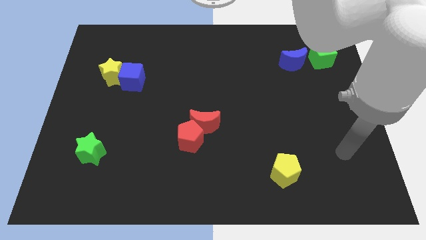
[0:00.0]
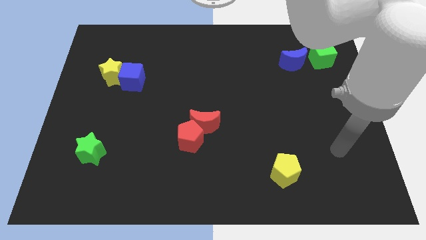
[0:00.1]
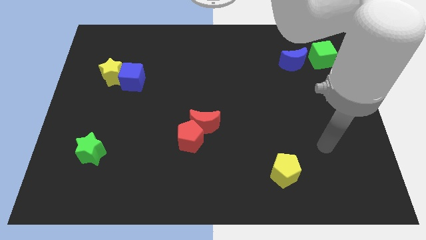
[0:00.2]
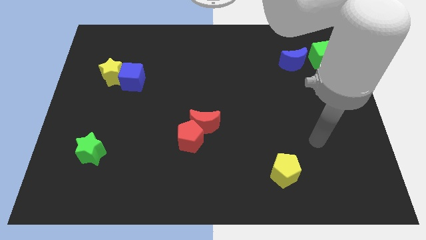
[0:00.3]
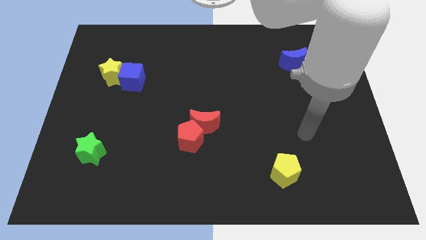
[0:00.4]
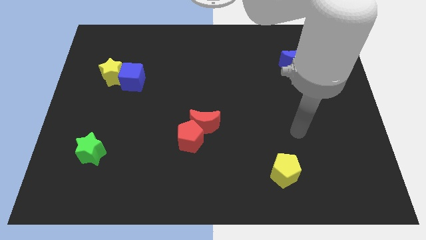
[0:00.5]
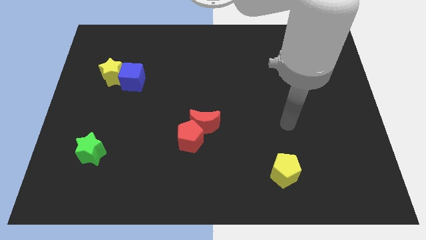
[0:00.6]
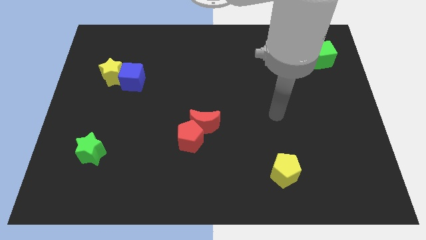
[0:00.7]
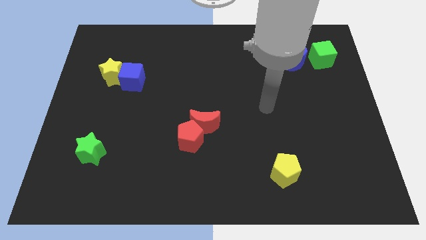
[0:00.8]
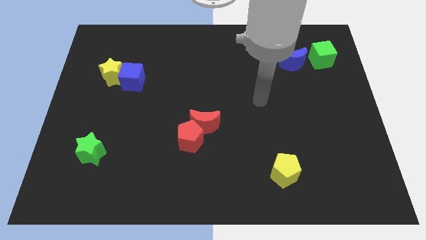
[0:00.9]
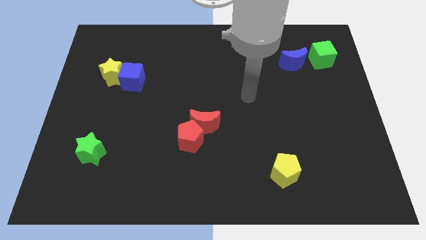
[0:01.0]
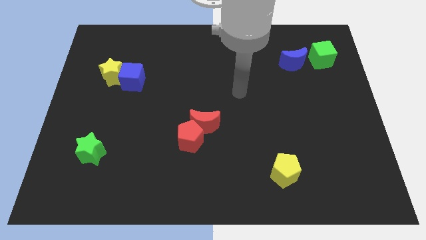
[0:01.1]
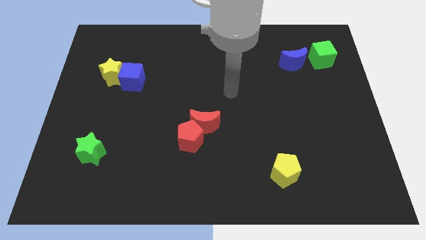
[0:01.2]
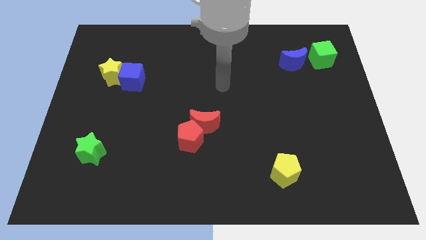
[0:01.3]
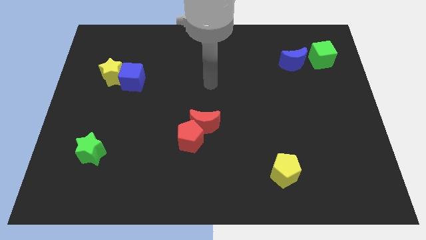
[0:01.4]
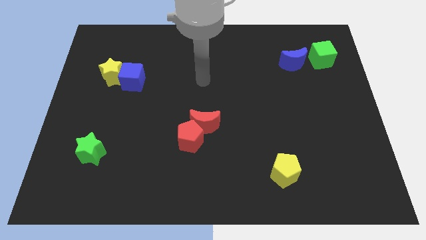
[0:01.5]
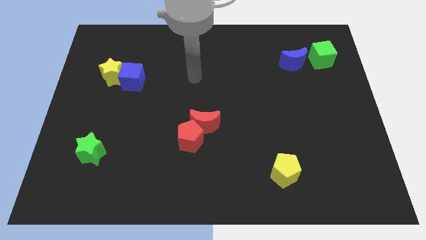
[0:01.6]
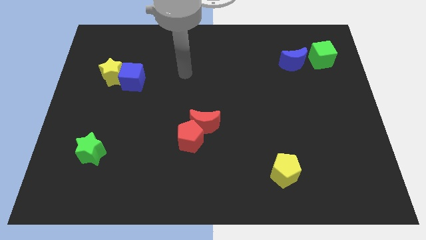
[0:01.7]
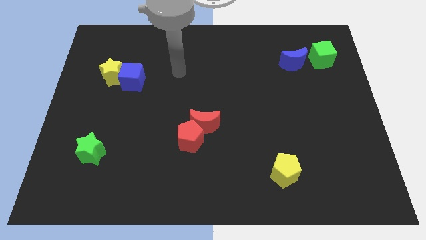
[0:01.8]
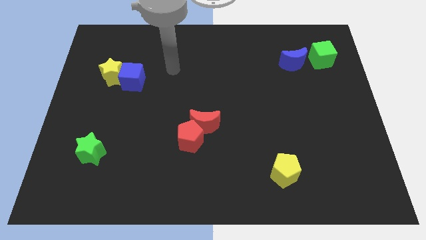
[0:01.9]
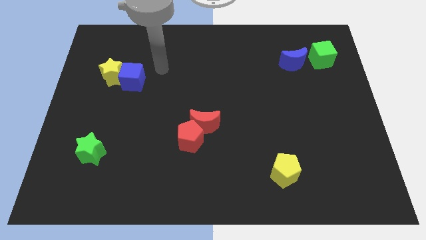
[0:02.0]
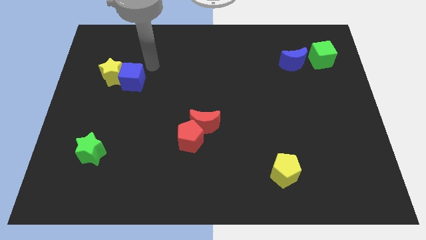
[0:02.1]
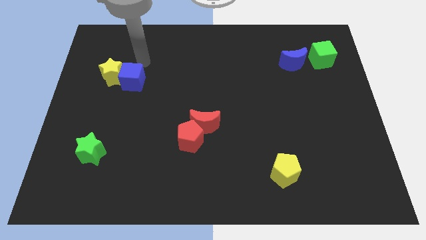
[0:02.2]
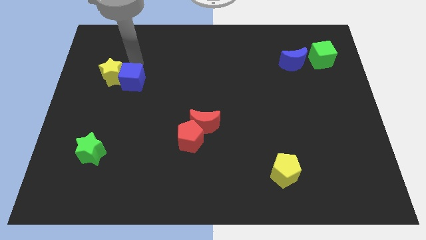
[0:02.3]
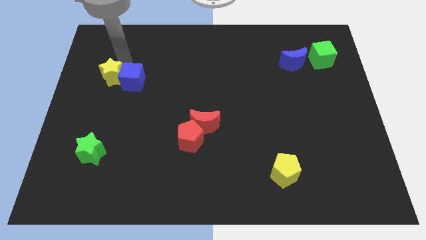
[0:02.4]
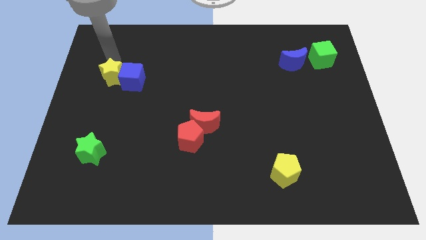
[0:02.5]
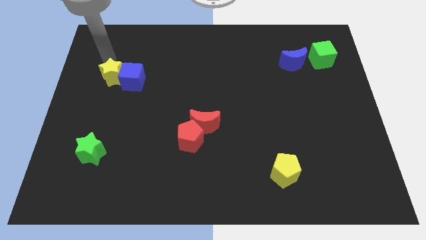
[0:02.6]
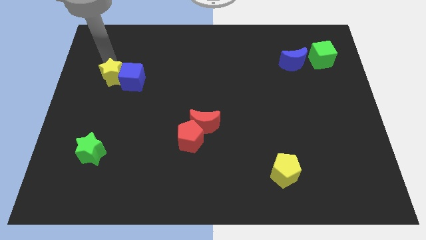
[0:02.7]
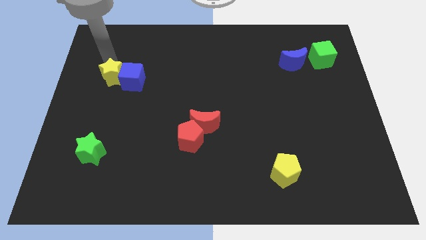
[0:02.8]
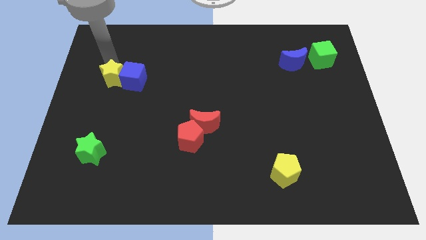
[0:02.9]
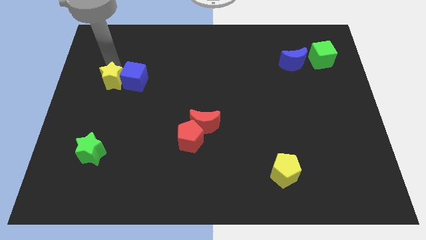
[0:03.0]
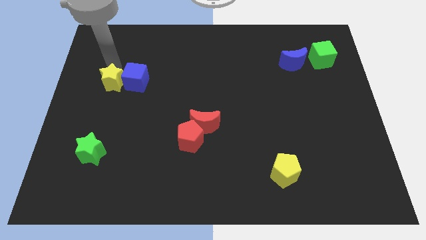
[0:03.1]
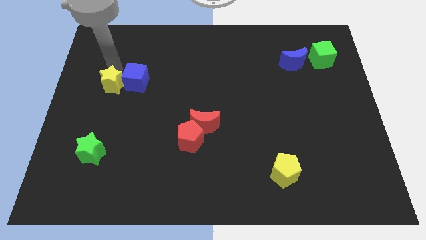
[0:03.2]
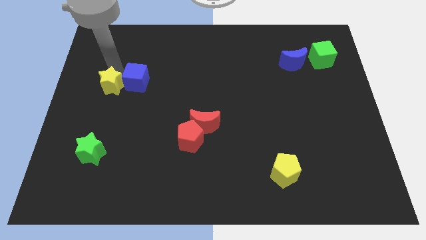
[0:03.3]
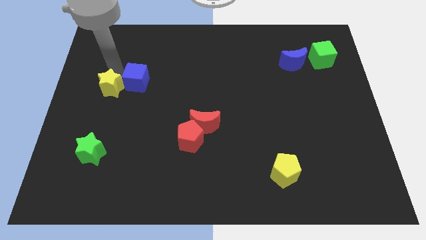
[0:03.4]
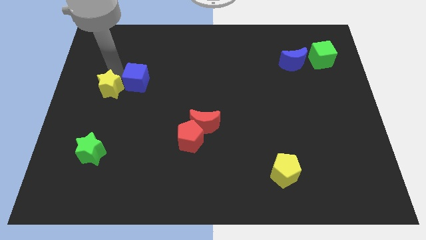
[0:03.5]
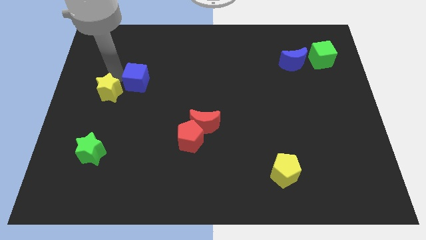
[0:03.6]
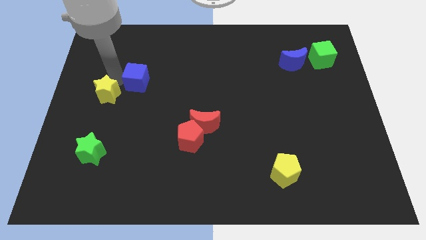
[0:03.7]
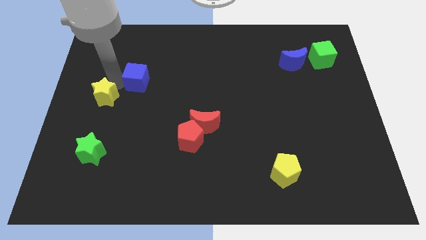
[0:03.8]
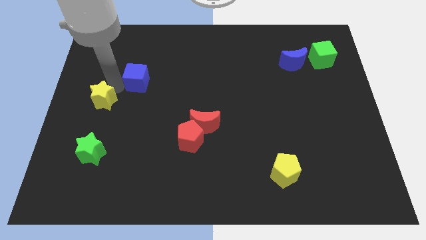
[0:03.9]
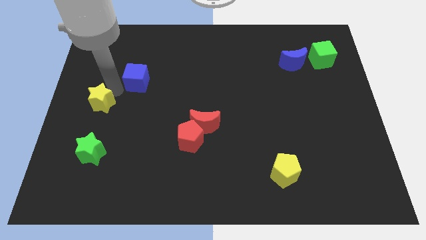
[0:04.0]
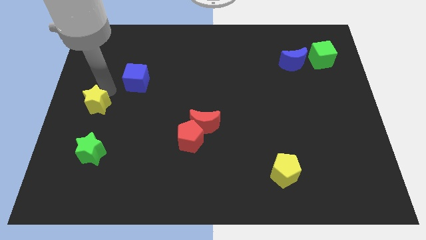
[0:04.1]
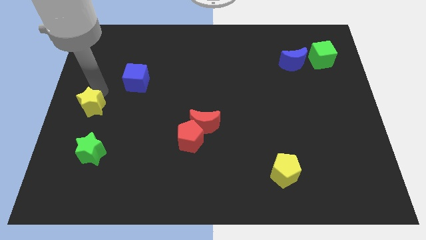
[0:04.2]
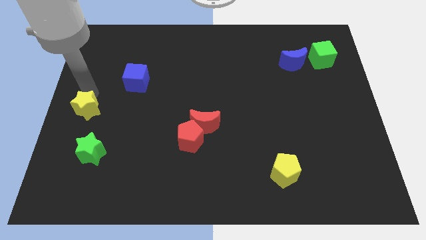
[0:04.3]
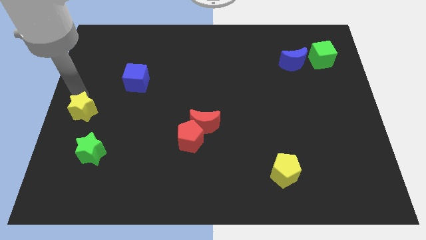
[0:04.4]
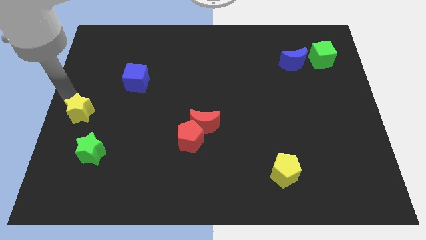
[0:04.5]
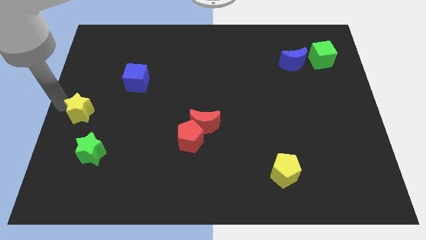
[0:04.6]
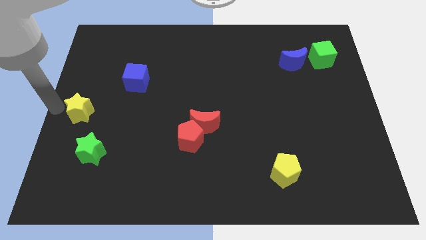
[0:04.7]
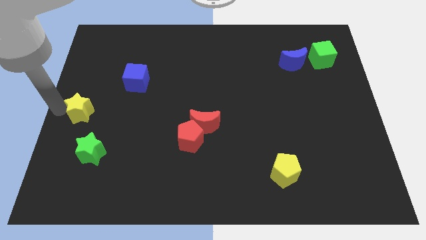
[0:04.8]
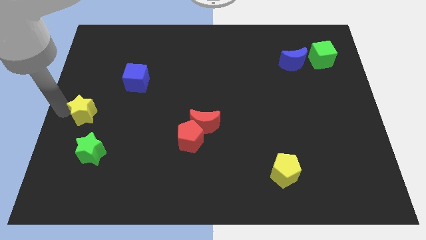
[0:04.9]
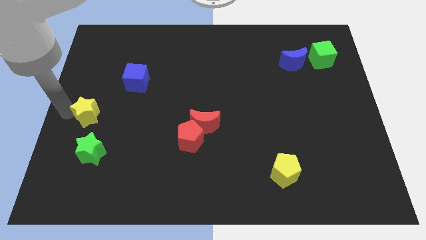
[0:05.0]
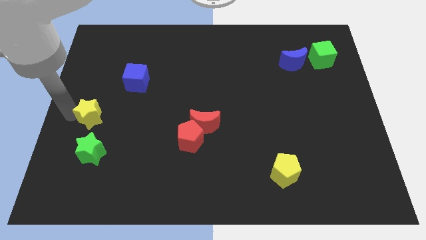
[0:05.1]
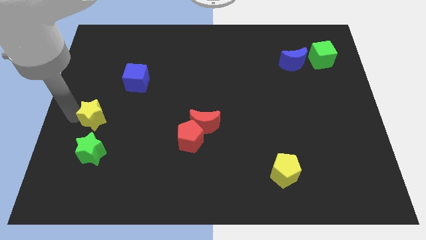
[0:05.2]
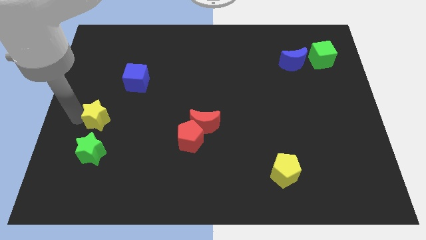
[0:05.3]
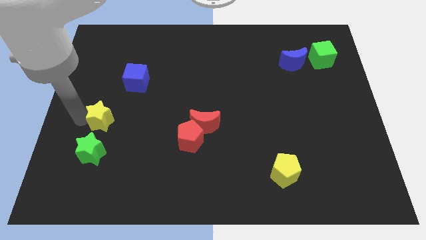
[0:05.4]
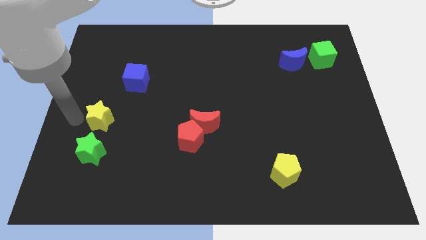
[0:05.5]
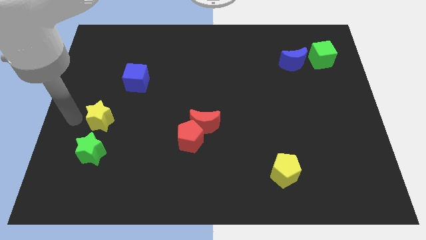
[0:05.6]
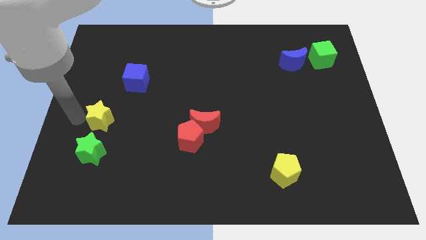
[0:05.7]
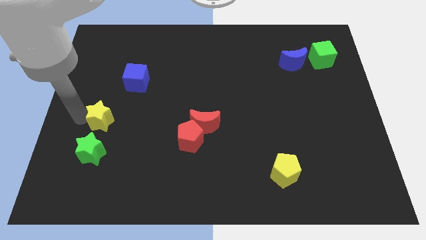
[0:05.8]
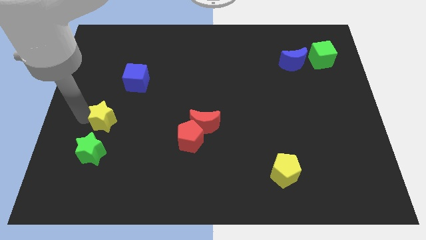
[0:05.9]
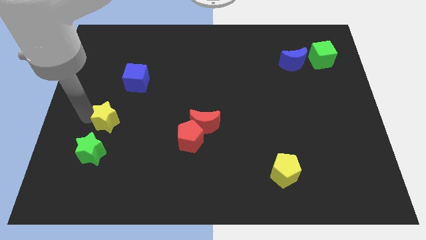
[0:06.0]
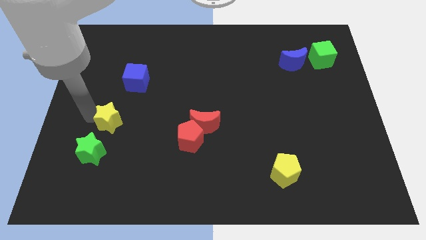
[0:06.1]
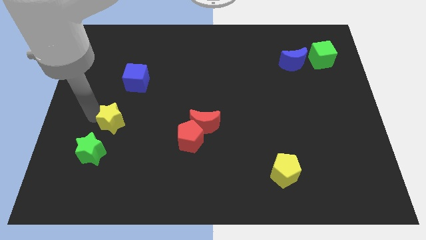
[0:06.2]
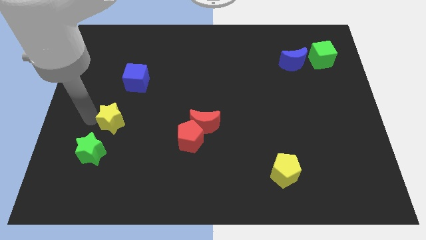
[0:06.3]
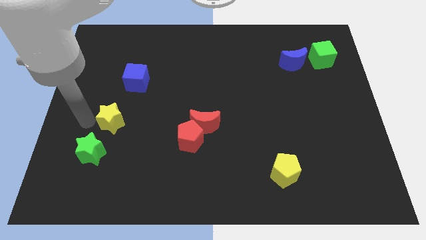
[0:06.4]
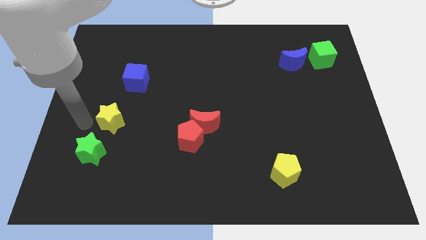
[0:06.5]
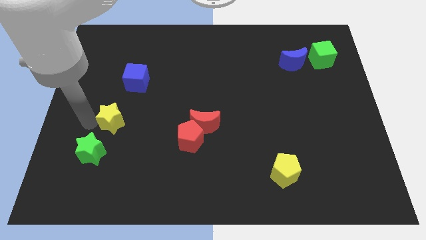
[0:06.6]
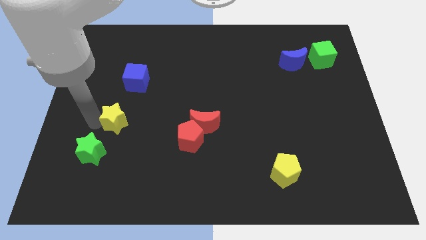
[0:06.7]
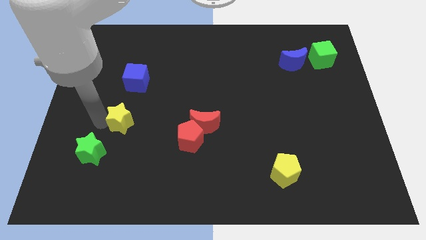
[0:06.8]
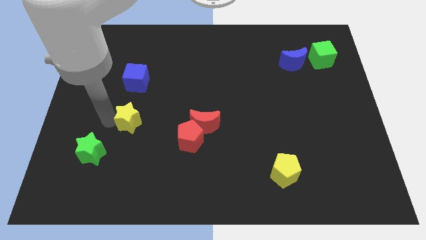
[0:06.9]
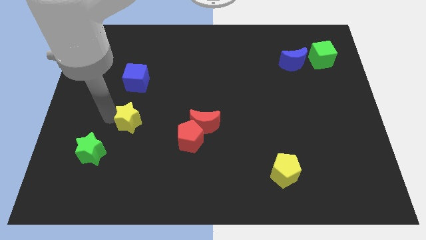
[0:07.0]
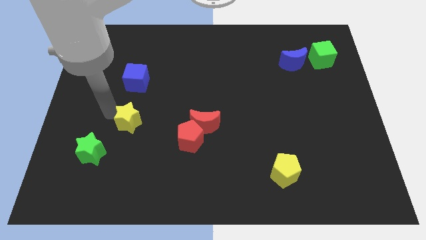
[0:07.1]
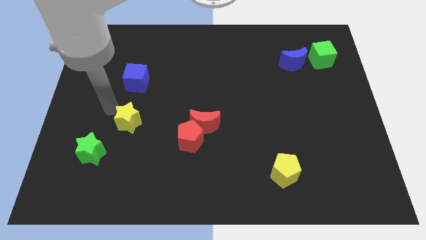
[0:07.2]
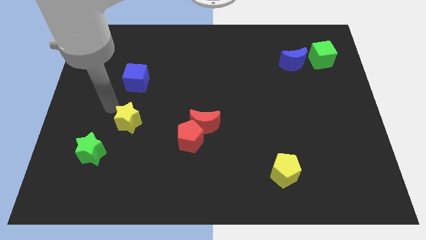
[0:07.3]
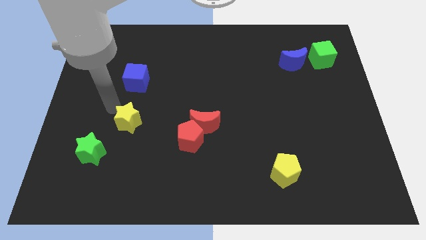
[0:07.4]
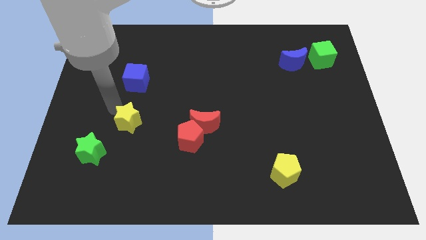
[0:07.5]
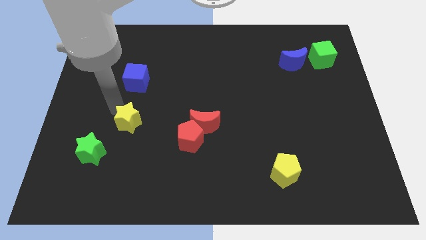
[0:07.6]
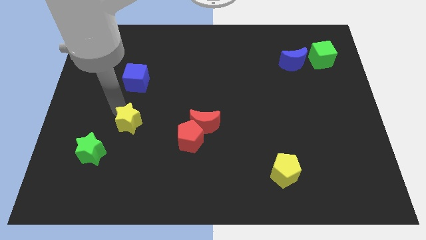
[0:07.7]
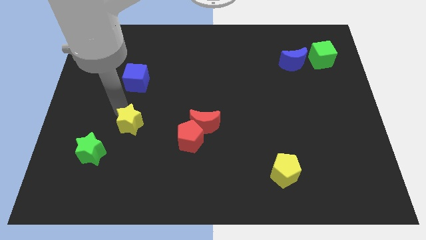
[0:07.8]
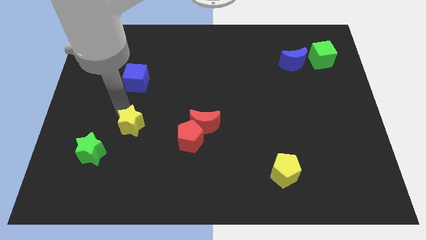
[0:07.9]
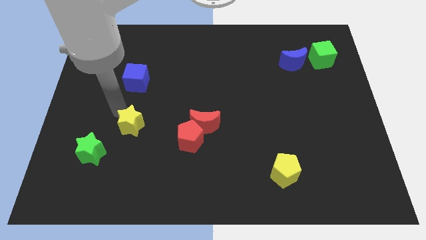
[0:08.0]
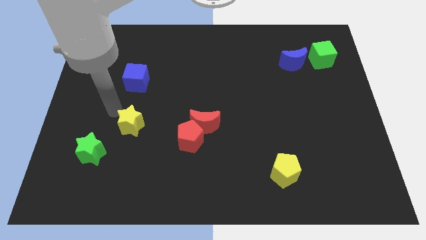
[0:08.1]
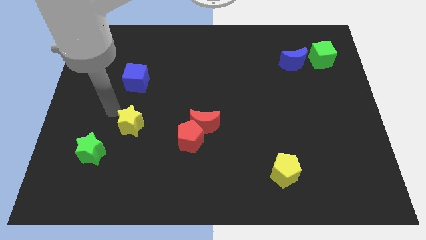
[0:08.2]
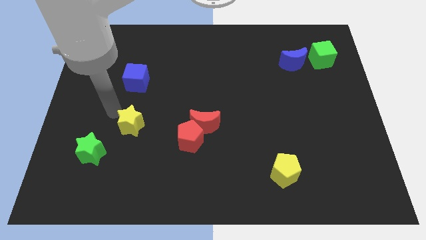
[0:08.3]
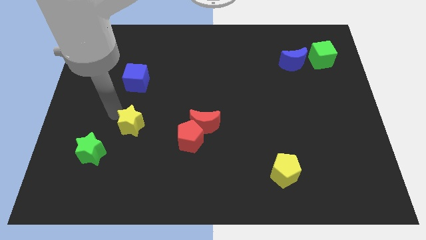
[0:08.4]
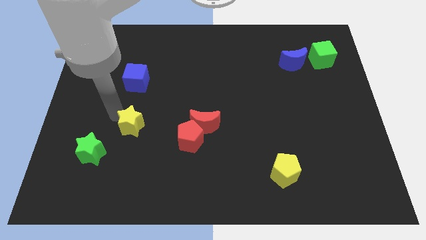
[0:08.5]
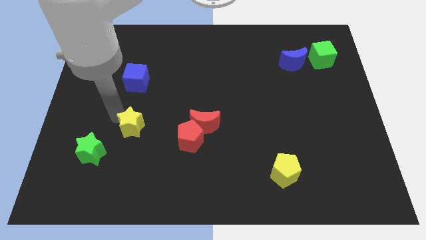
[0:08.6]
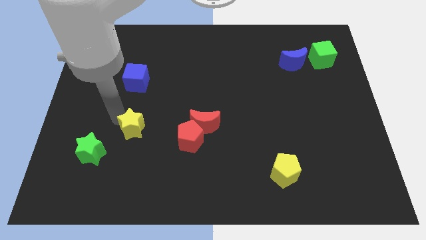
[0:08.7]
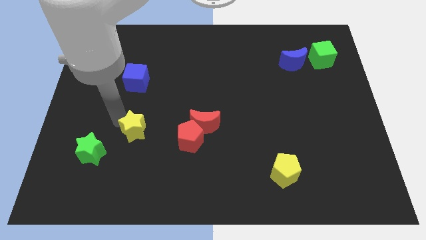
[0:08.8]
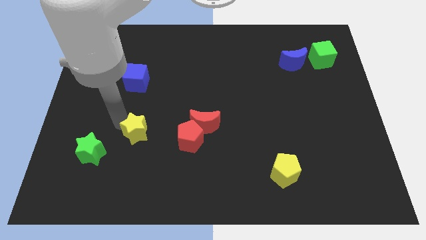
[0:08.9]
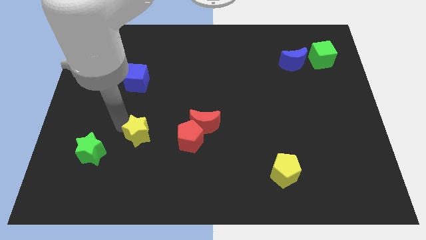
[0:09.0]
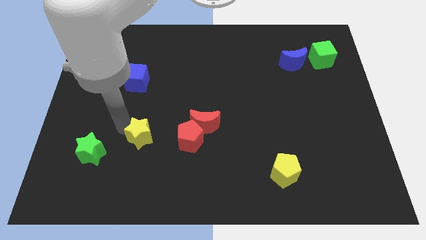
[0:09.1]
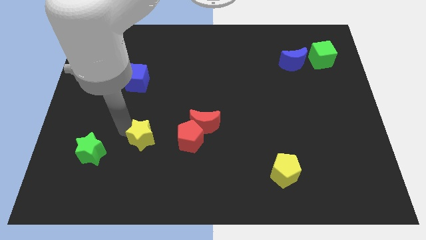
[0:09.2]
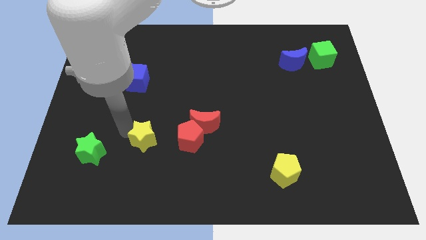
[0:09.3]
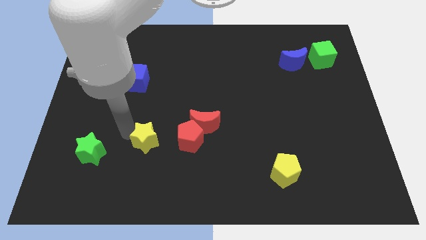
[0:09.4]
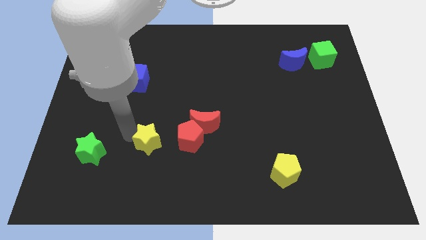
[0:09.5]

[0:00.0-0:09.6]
slide the yellow star diagonally downwards and right
